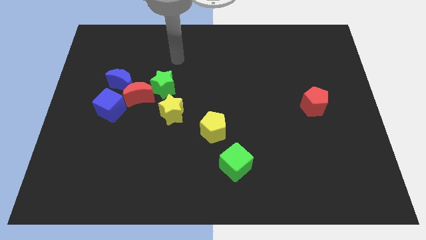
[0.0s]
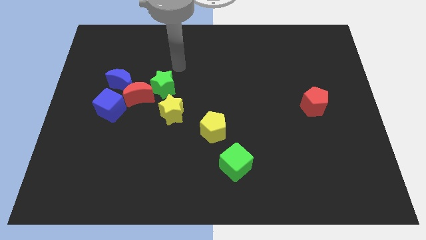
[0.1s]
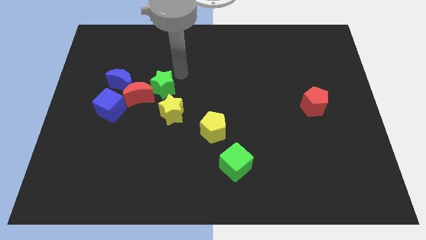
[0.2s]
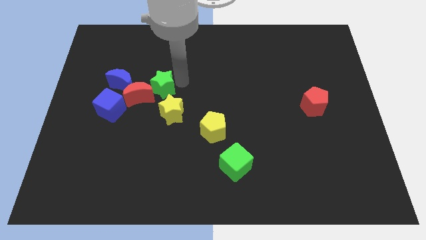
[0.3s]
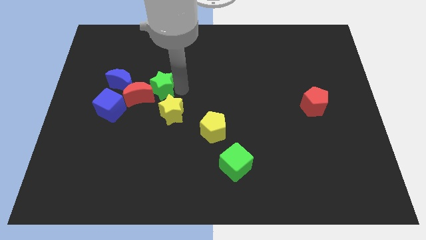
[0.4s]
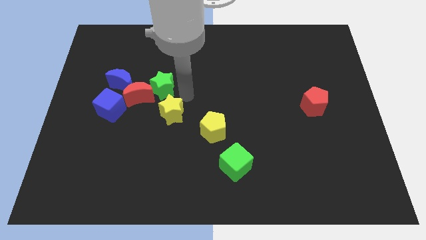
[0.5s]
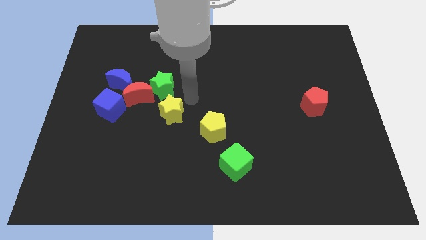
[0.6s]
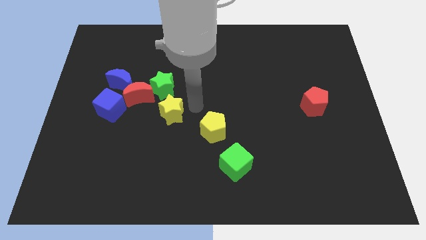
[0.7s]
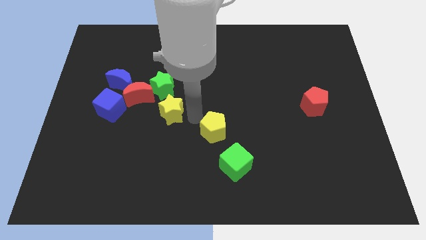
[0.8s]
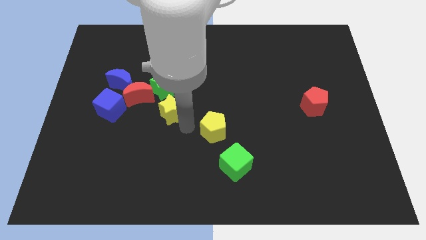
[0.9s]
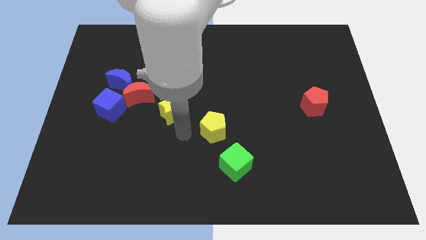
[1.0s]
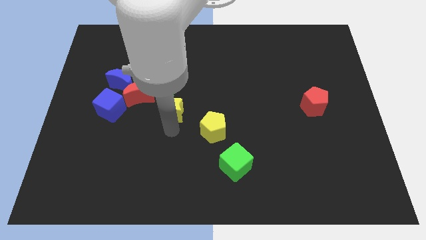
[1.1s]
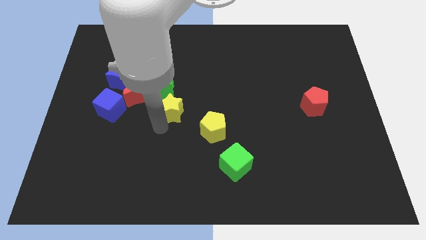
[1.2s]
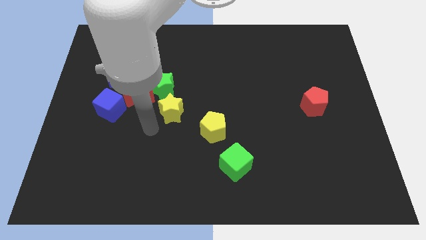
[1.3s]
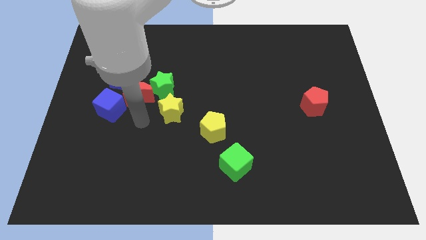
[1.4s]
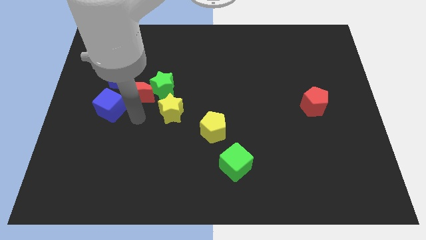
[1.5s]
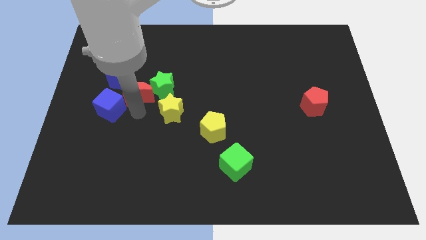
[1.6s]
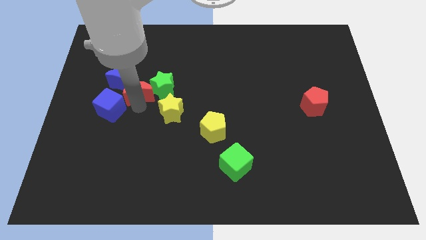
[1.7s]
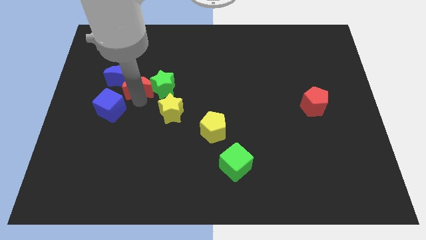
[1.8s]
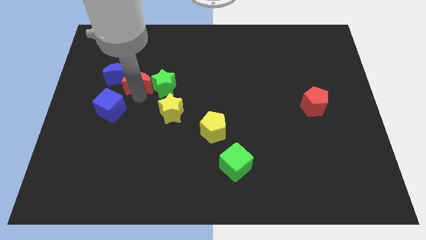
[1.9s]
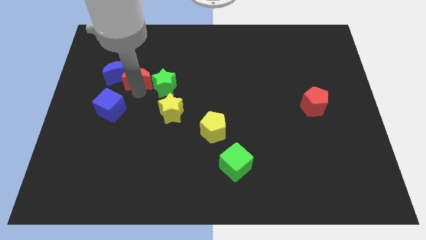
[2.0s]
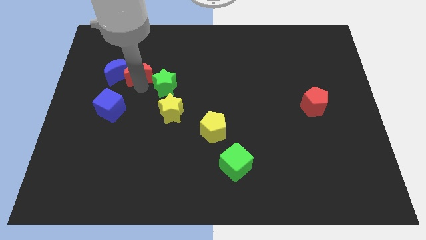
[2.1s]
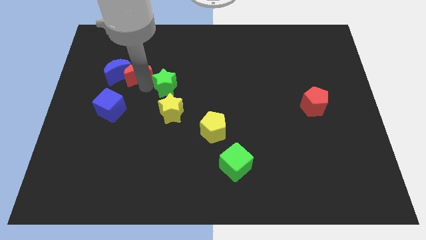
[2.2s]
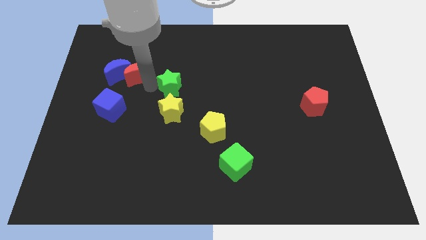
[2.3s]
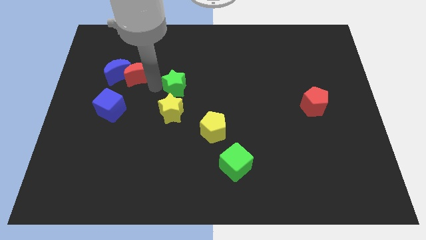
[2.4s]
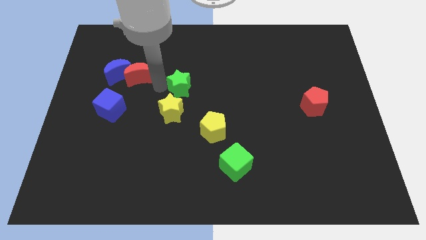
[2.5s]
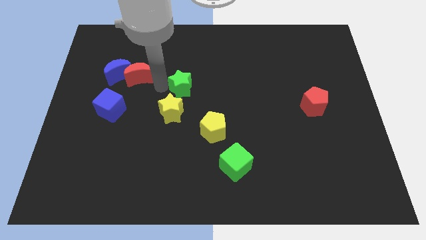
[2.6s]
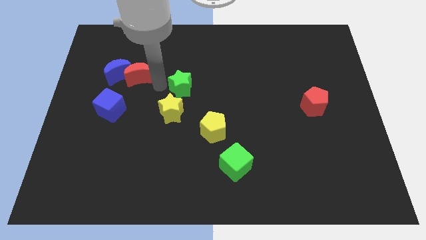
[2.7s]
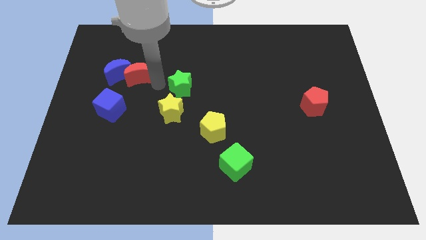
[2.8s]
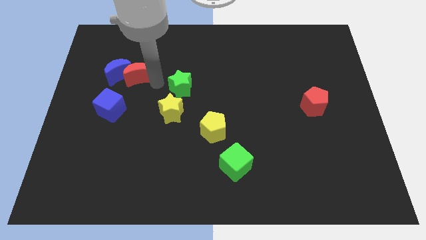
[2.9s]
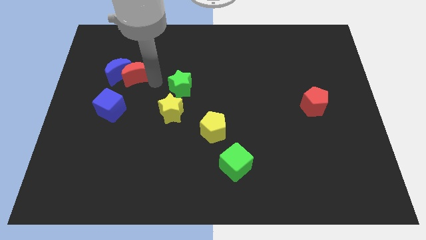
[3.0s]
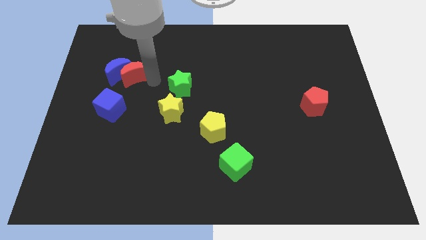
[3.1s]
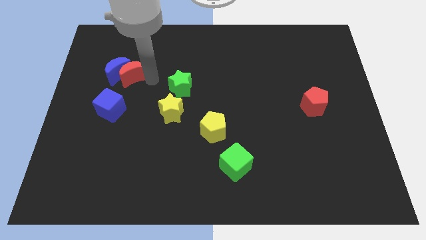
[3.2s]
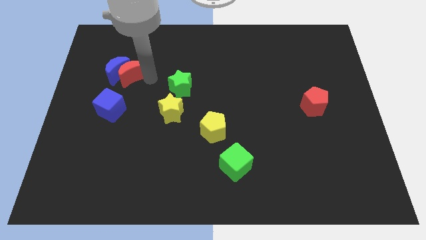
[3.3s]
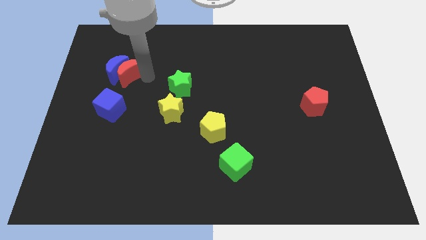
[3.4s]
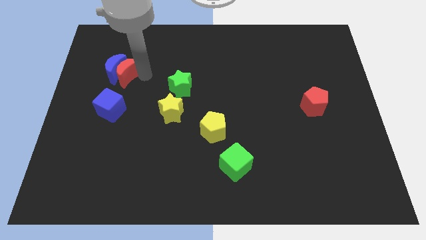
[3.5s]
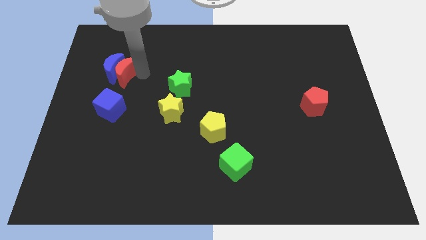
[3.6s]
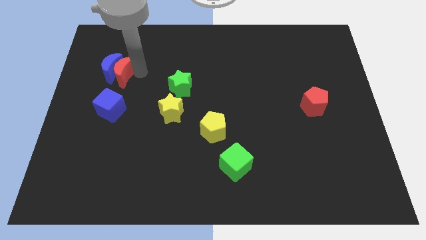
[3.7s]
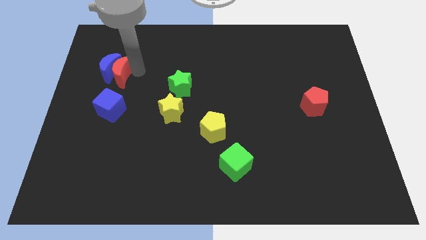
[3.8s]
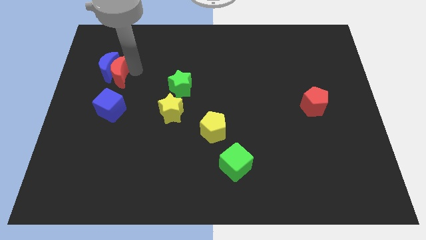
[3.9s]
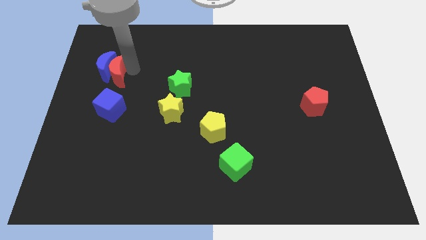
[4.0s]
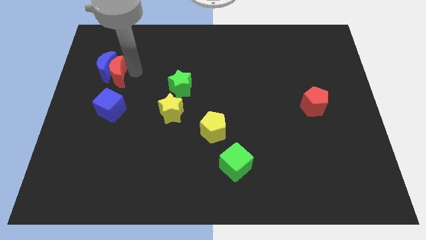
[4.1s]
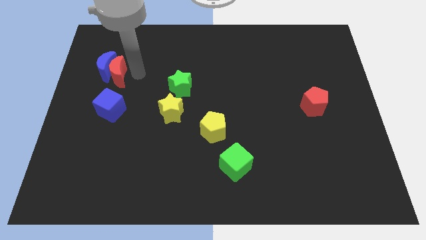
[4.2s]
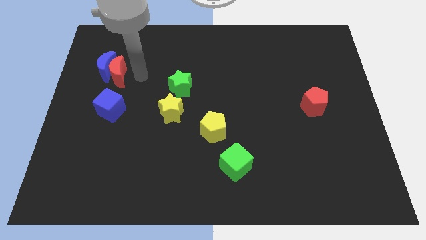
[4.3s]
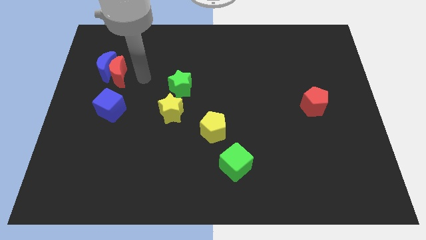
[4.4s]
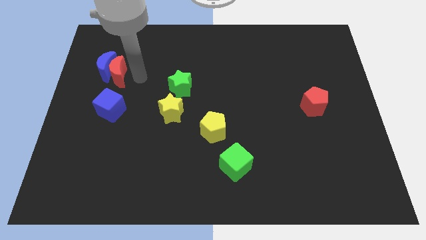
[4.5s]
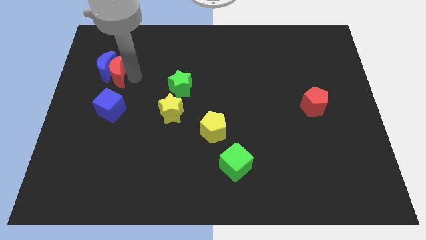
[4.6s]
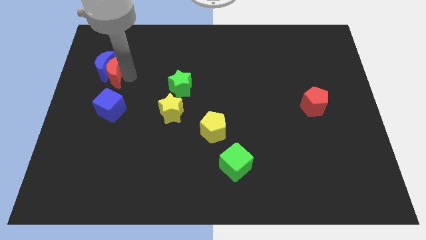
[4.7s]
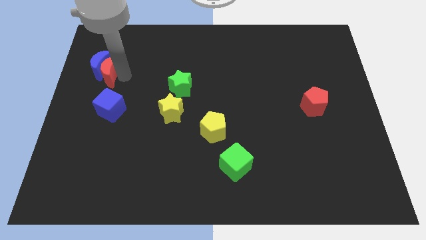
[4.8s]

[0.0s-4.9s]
move the red moon away from the group of blocks

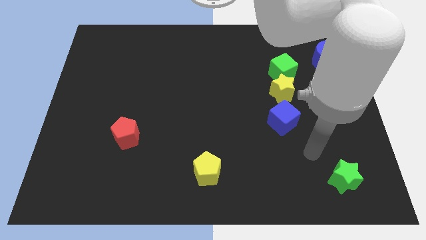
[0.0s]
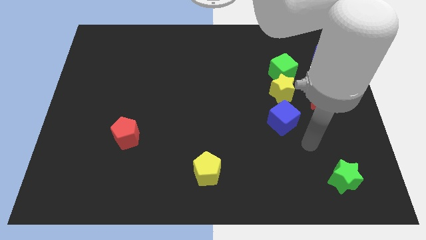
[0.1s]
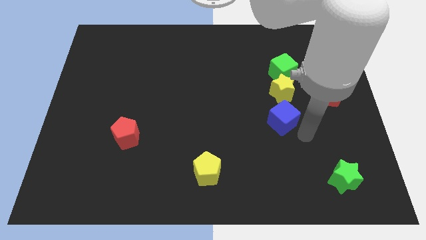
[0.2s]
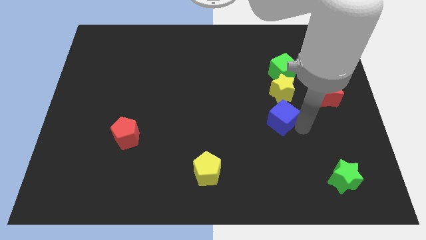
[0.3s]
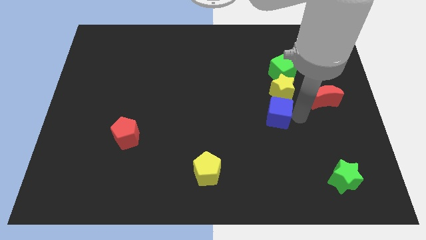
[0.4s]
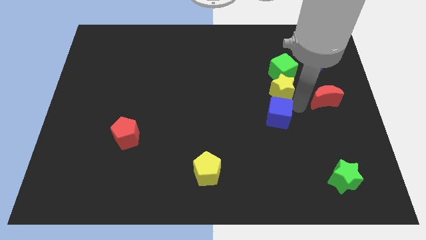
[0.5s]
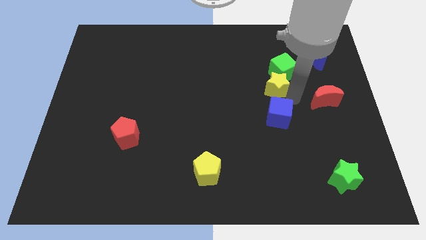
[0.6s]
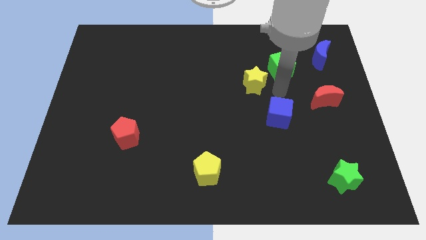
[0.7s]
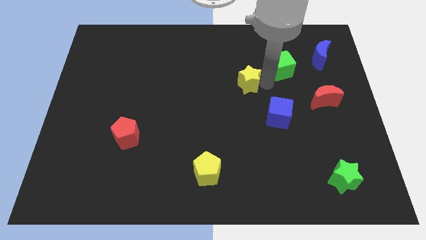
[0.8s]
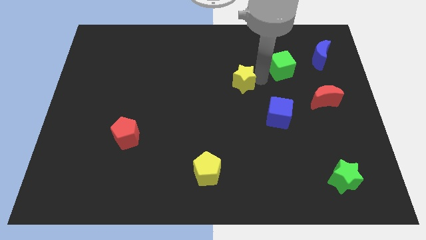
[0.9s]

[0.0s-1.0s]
move the green cube away from the yellow star

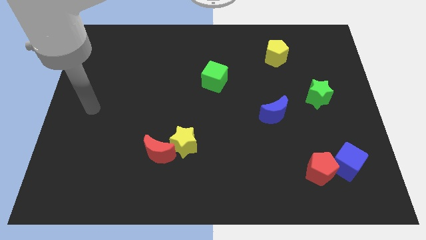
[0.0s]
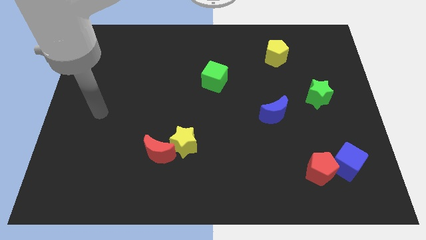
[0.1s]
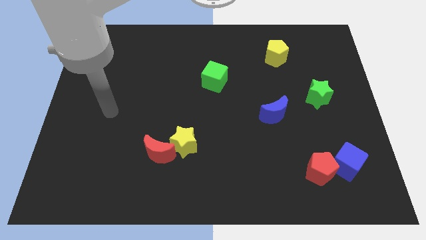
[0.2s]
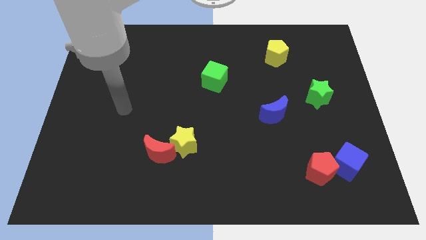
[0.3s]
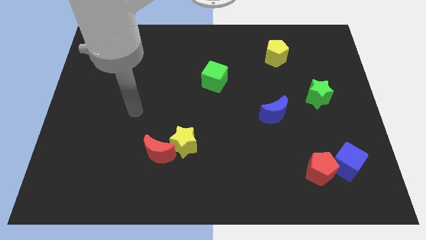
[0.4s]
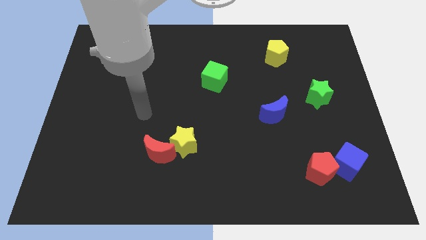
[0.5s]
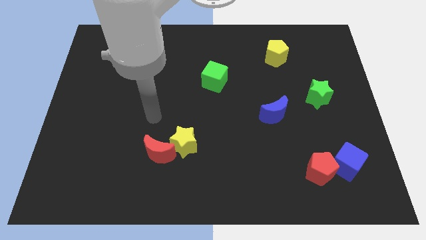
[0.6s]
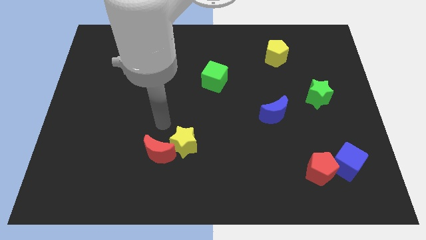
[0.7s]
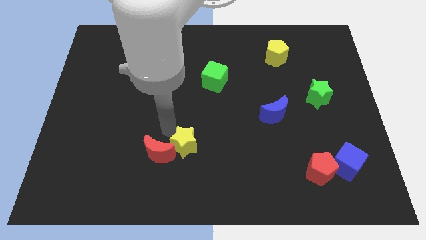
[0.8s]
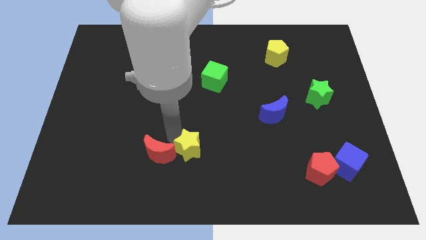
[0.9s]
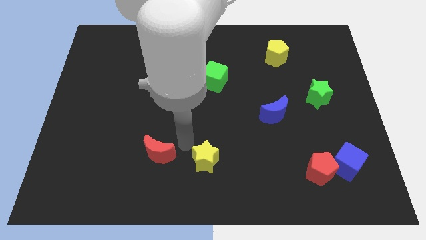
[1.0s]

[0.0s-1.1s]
move the red moon away from the yellow star

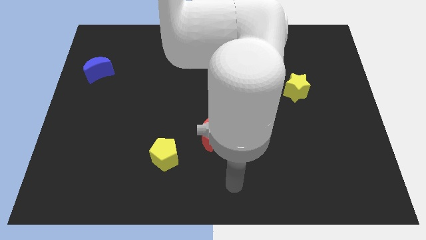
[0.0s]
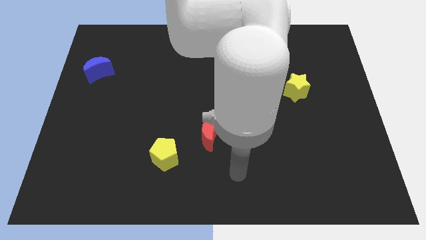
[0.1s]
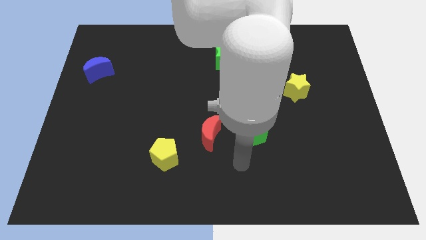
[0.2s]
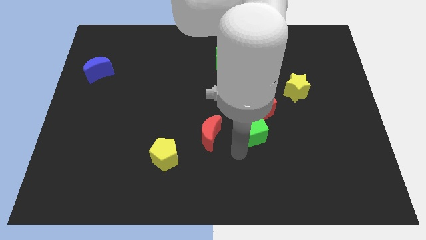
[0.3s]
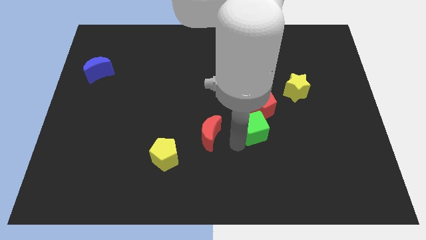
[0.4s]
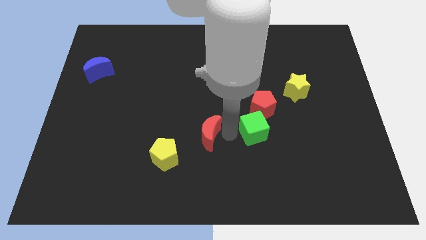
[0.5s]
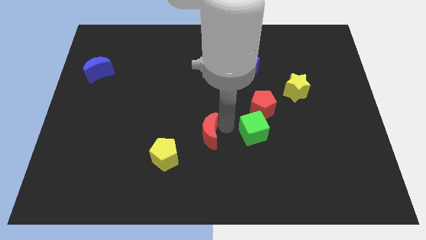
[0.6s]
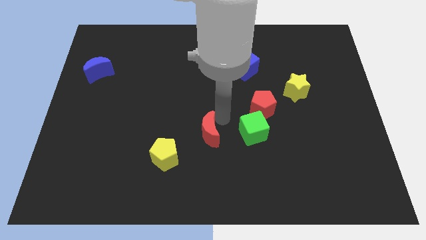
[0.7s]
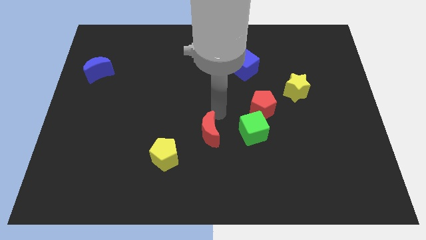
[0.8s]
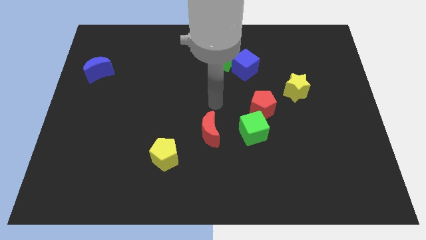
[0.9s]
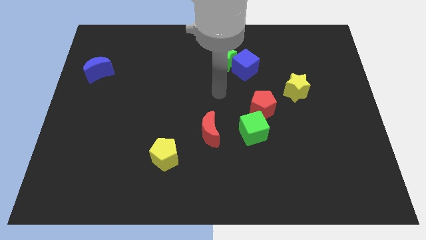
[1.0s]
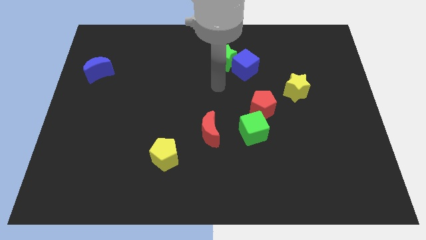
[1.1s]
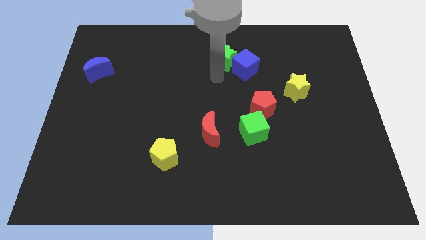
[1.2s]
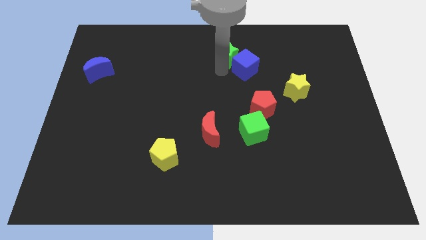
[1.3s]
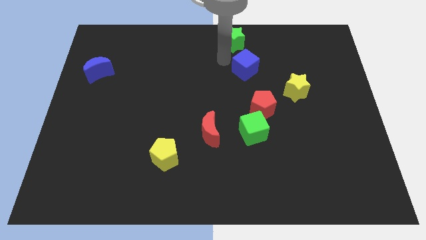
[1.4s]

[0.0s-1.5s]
move the blue cube away from the green star

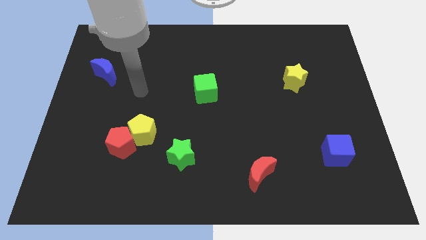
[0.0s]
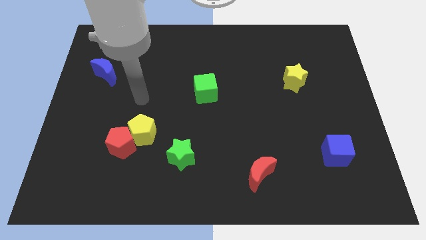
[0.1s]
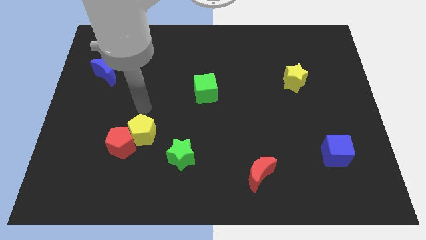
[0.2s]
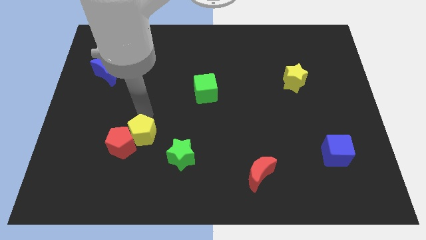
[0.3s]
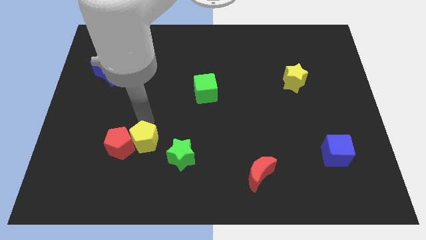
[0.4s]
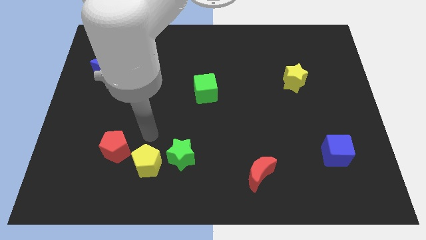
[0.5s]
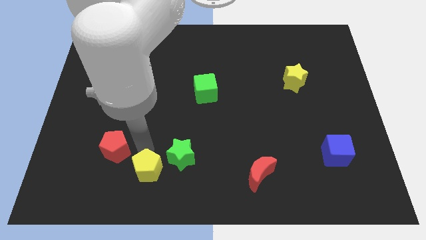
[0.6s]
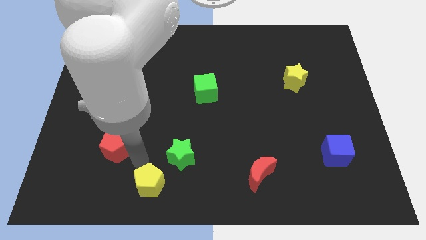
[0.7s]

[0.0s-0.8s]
move the red pentagon away from the yellow pentagon
